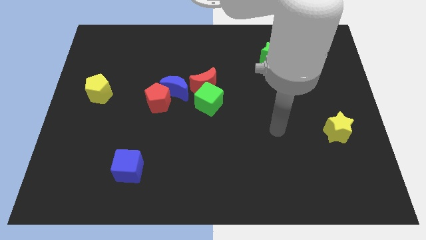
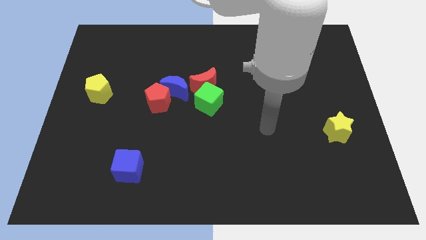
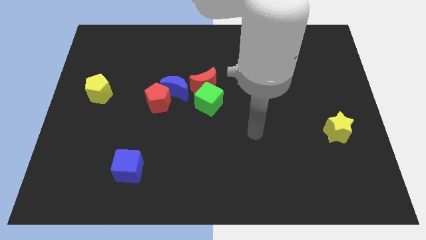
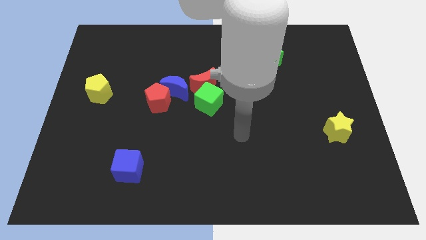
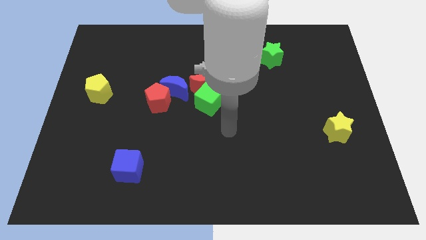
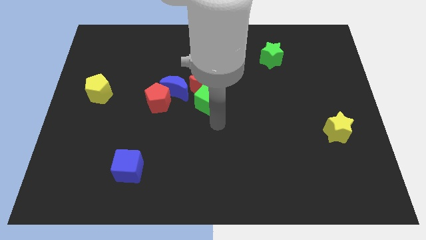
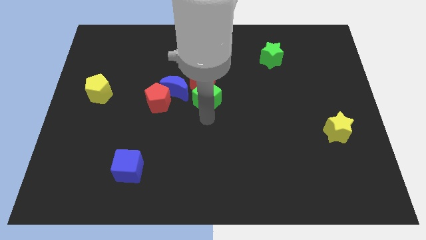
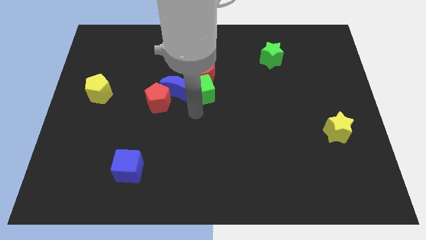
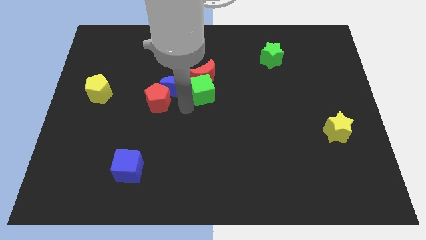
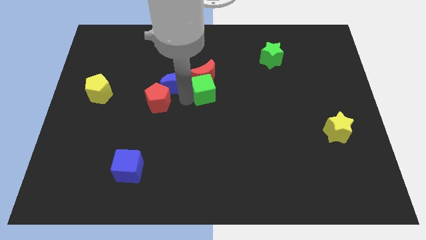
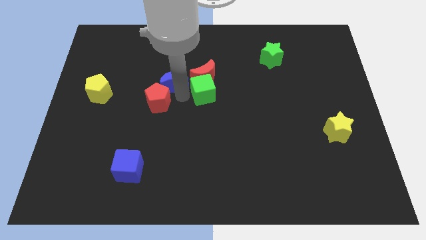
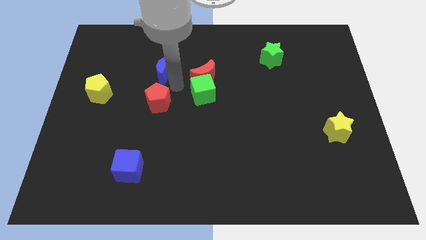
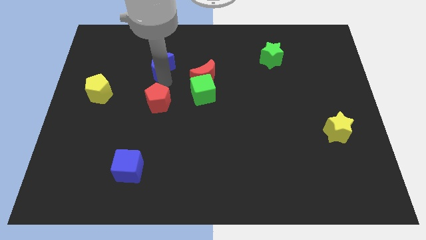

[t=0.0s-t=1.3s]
separate the red pentagon from the blue moon

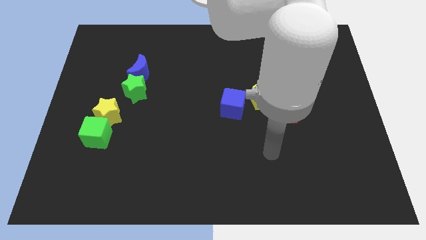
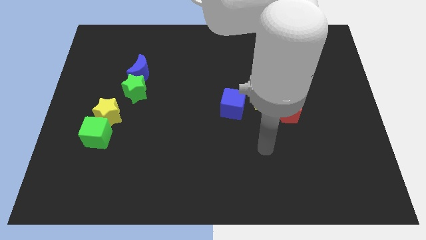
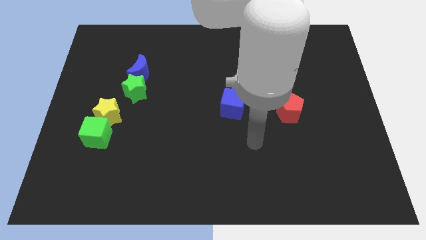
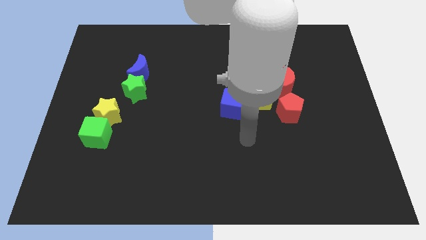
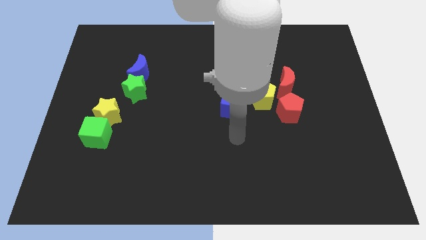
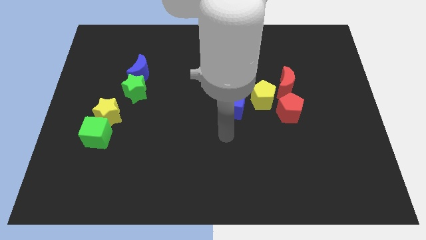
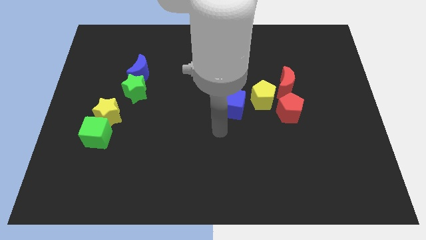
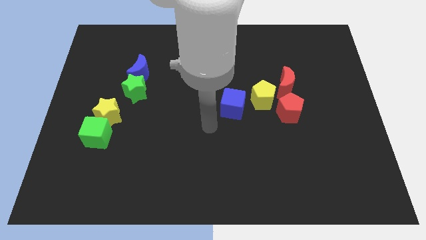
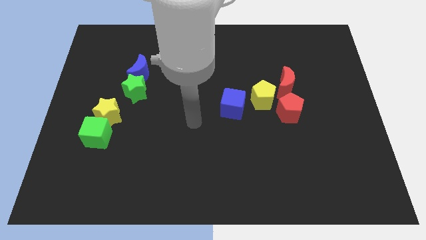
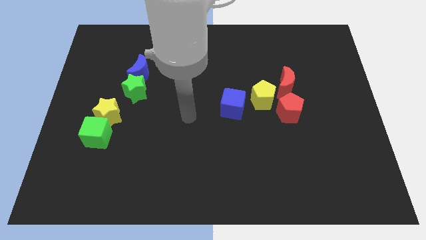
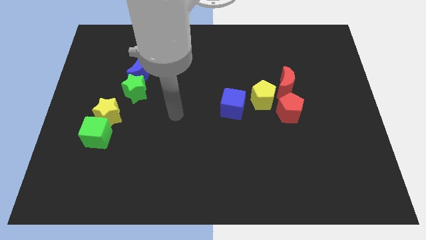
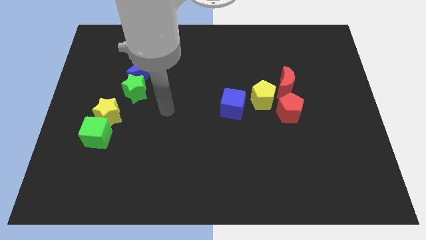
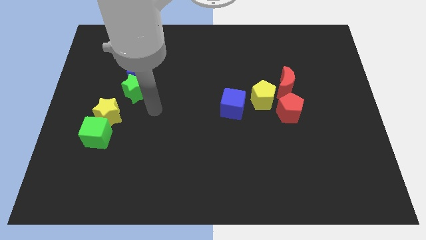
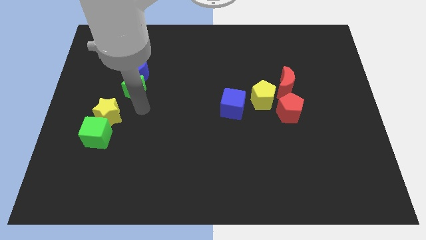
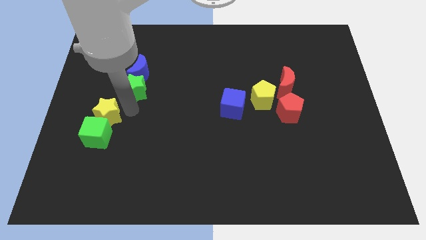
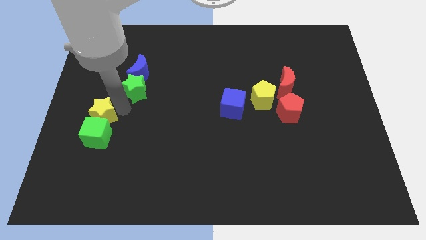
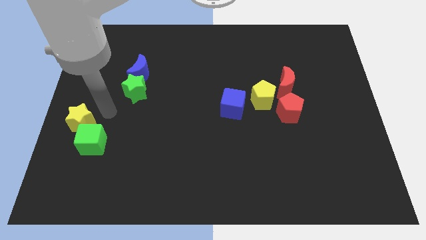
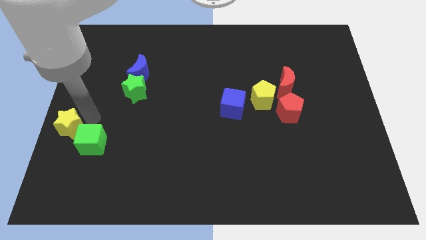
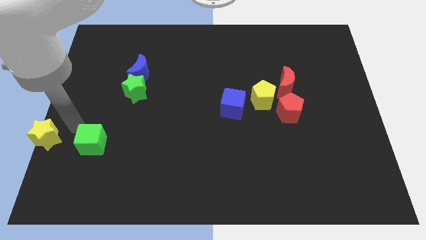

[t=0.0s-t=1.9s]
move the green cube away from the yellow star

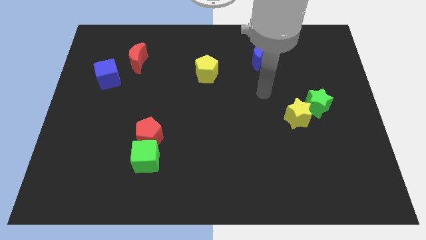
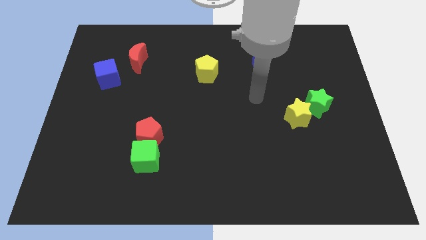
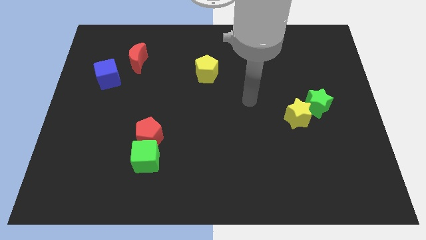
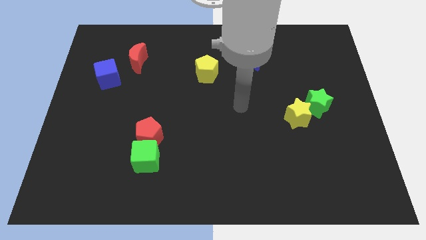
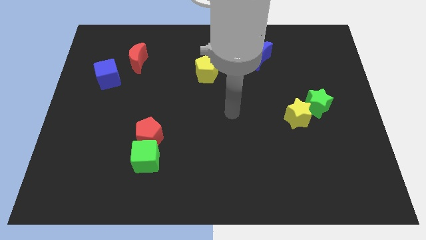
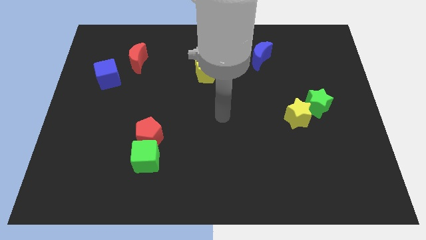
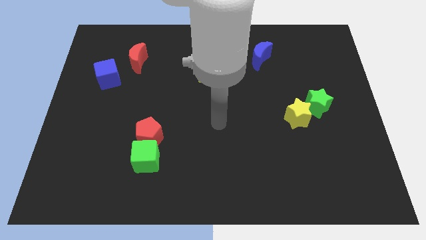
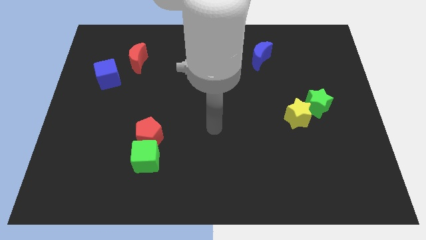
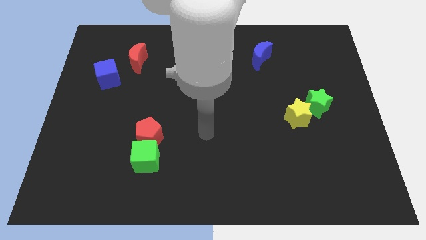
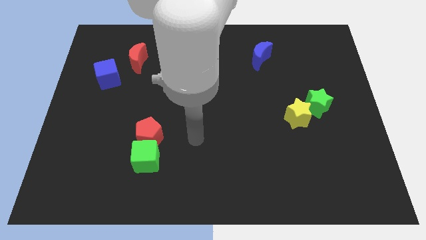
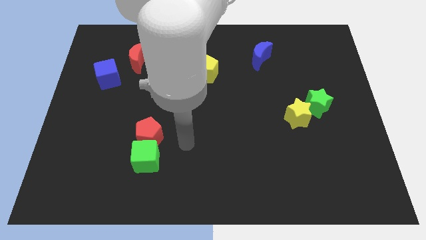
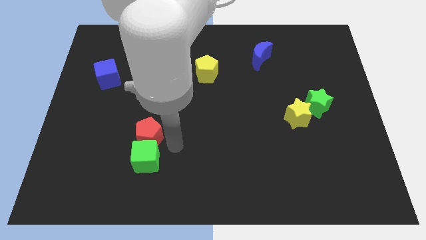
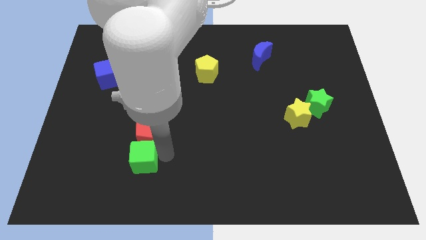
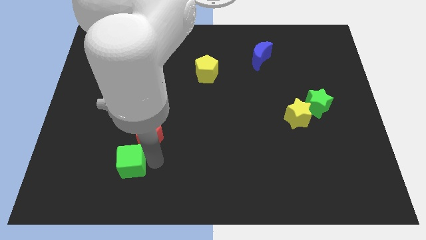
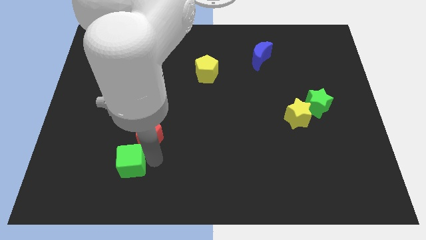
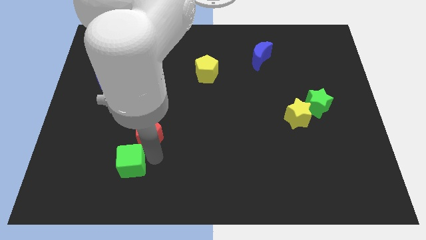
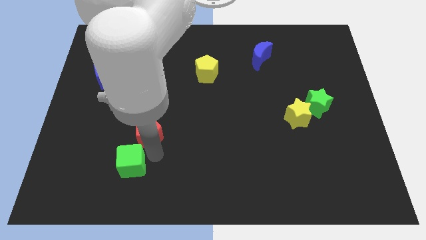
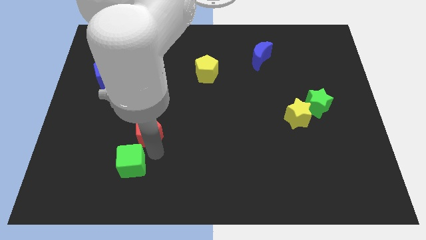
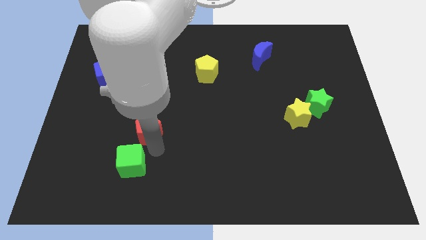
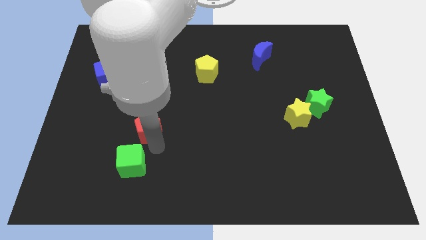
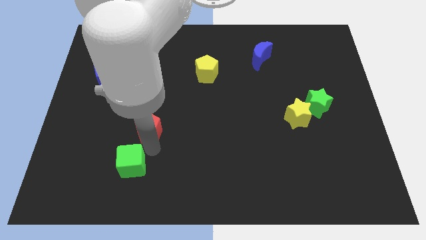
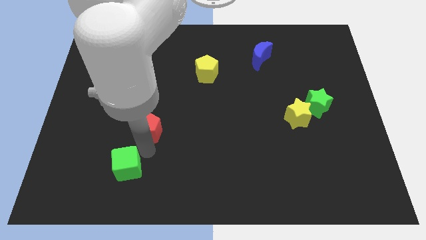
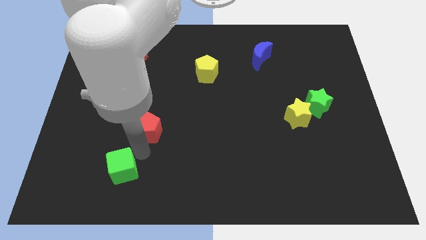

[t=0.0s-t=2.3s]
separate the red pentagon from the green cube

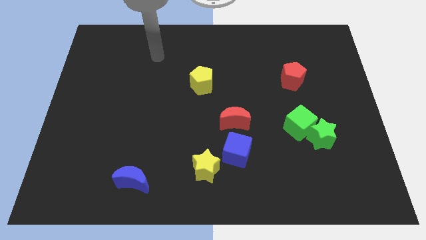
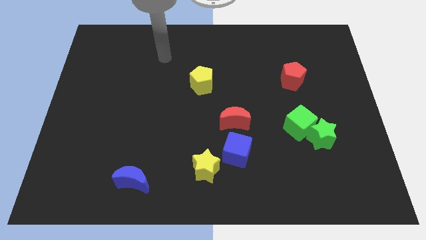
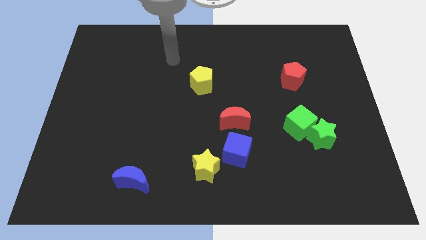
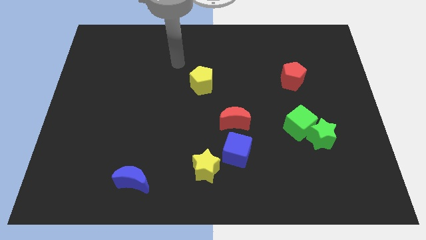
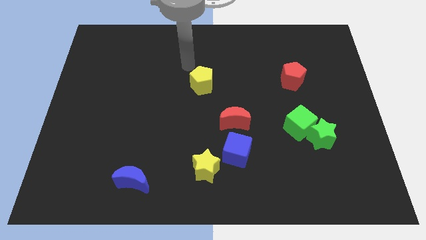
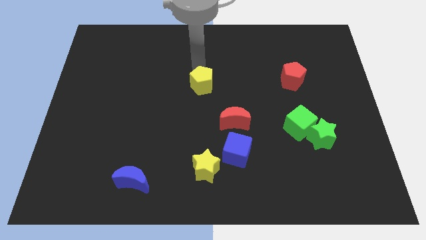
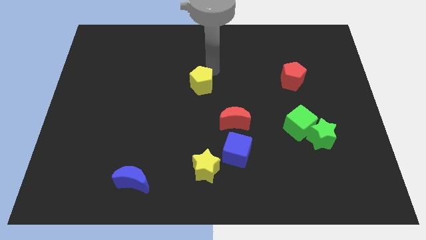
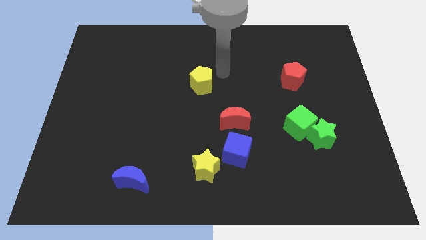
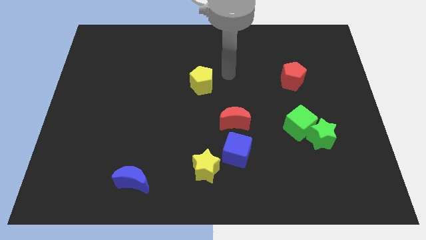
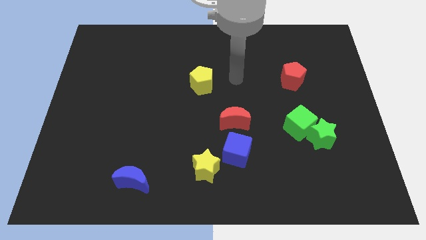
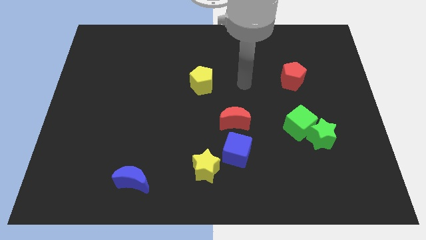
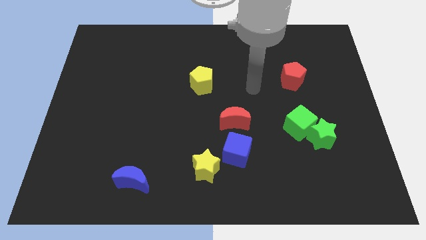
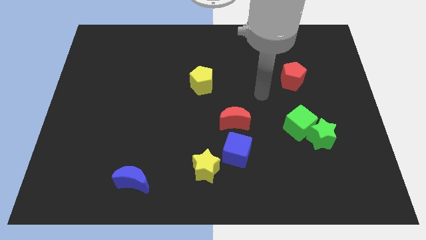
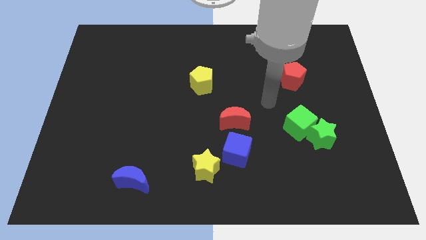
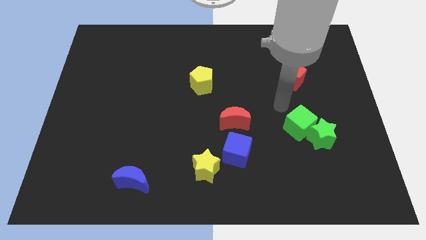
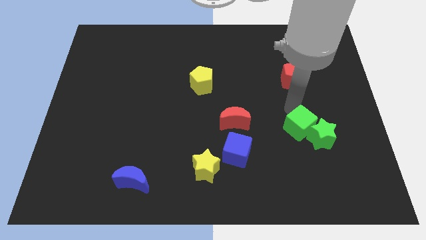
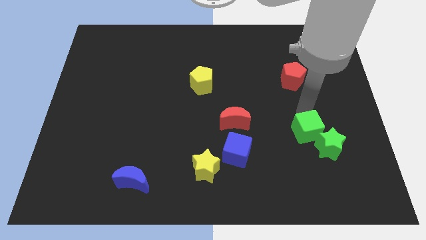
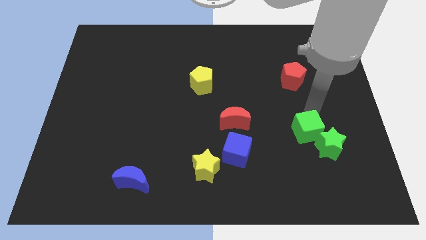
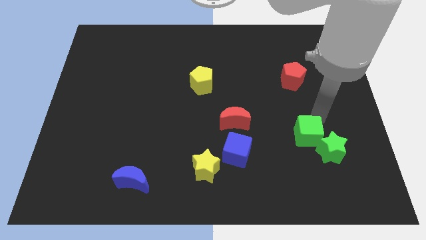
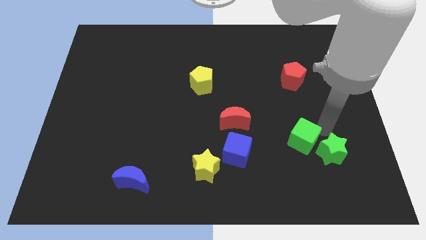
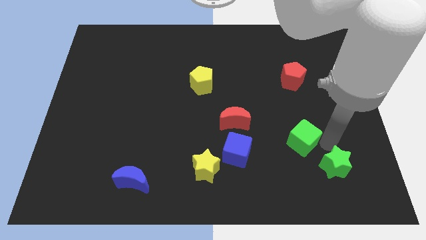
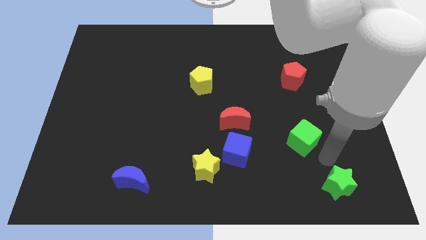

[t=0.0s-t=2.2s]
separate the green cube from the green star

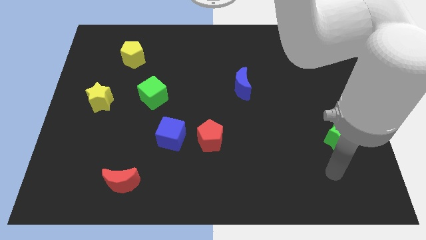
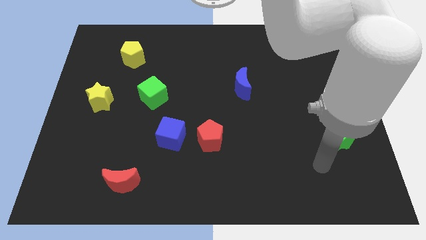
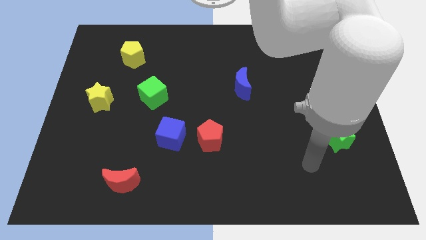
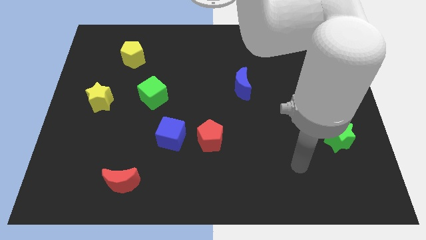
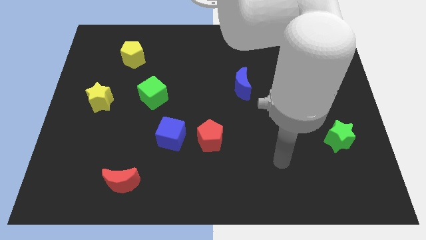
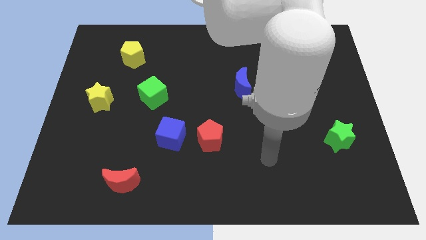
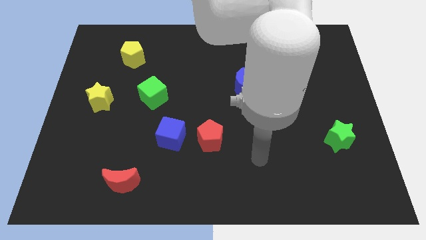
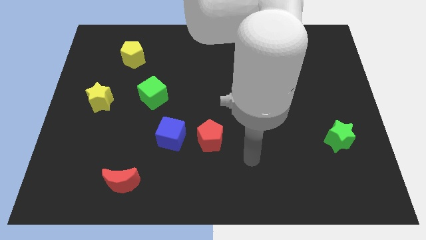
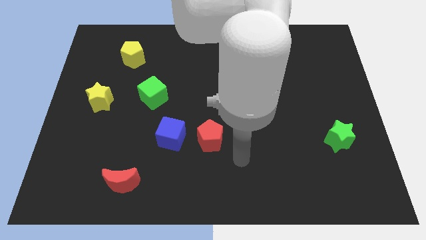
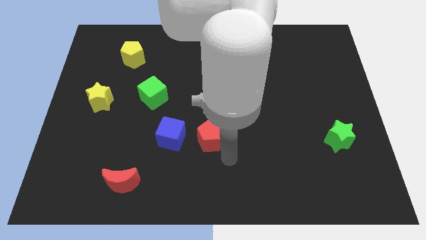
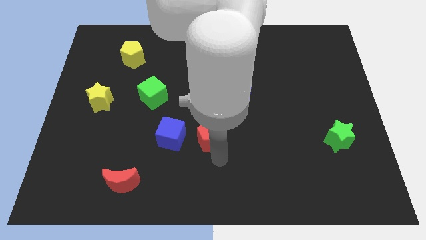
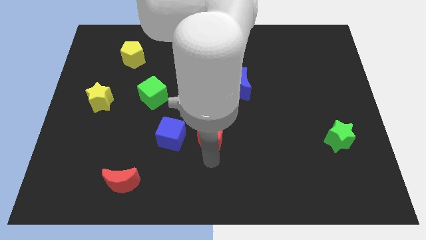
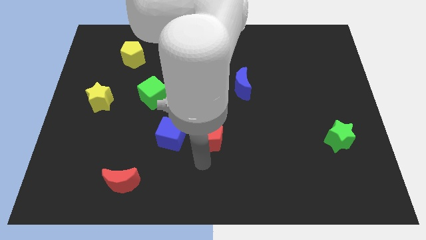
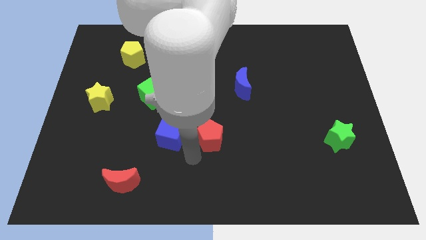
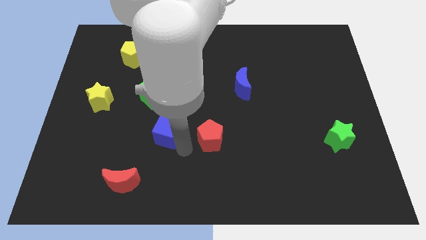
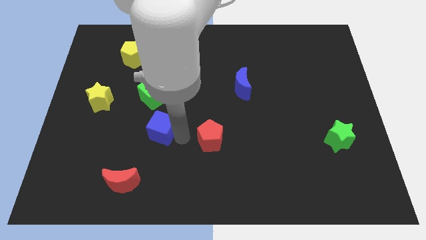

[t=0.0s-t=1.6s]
pull the red pentagon apart from the blue cube
